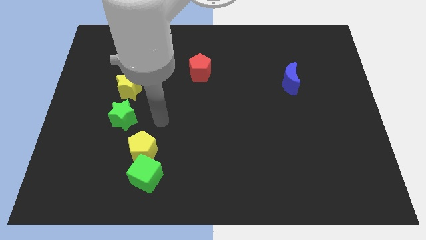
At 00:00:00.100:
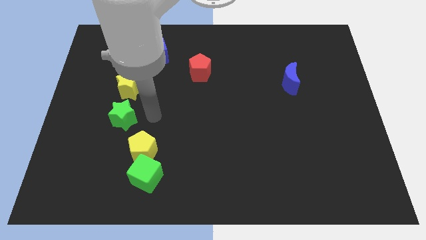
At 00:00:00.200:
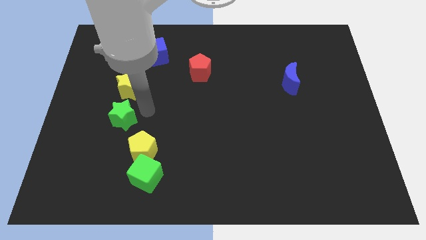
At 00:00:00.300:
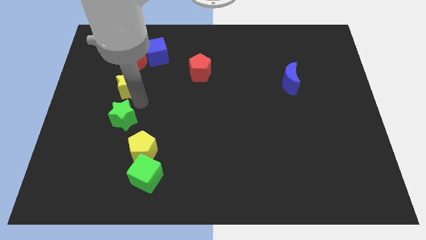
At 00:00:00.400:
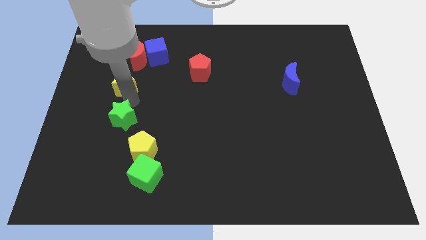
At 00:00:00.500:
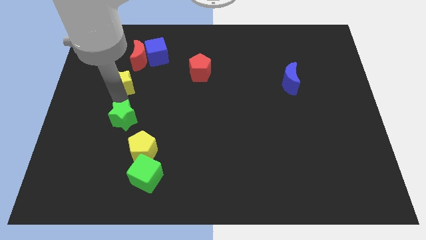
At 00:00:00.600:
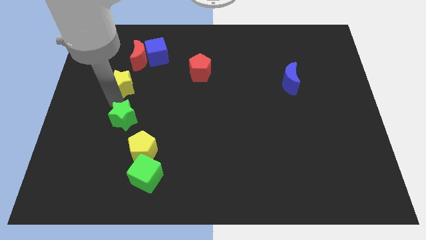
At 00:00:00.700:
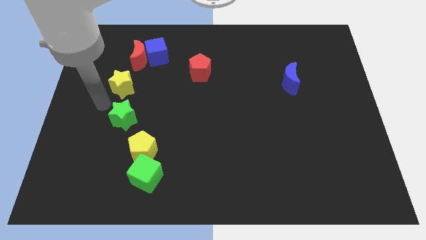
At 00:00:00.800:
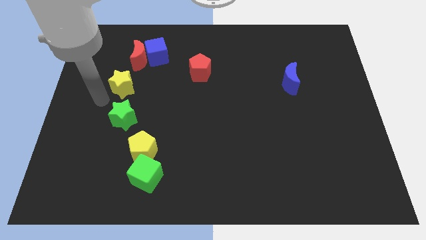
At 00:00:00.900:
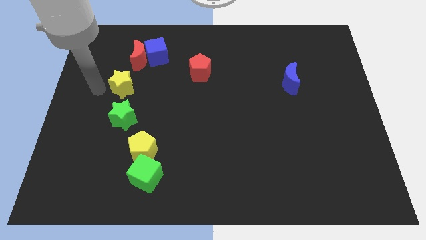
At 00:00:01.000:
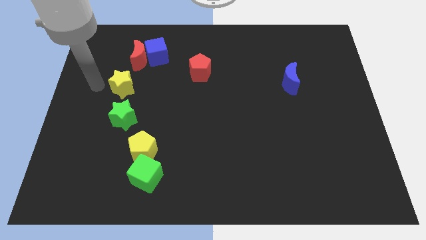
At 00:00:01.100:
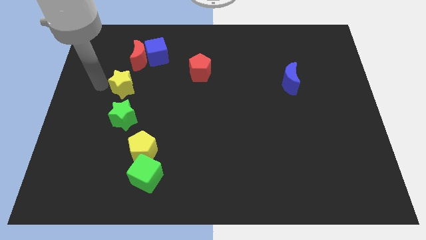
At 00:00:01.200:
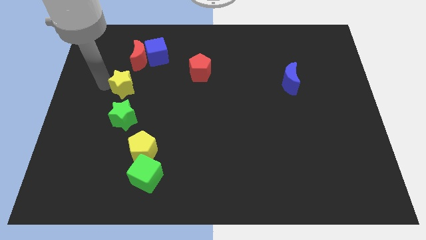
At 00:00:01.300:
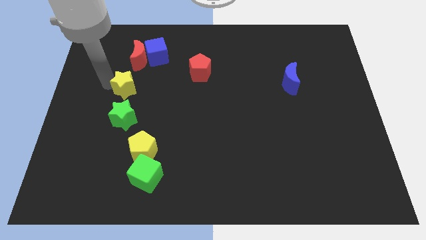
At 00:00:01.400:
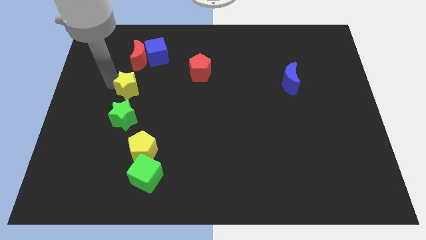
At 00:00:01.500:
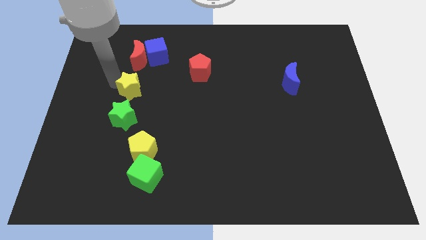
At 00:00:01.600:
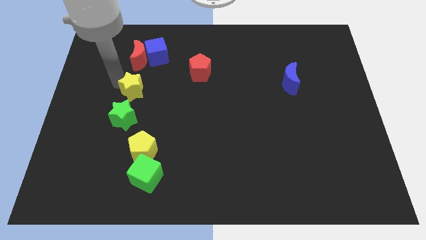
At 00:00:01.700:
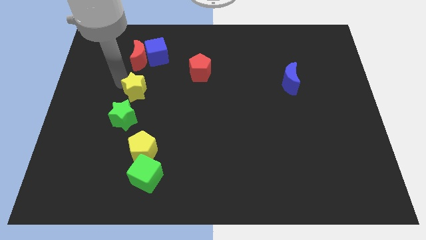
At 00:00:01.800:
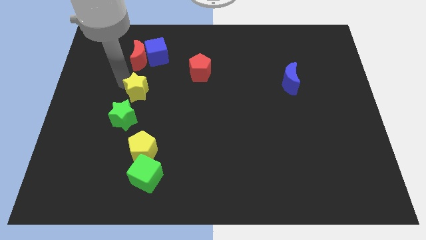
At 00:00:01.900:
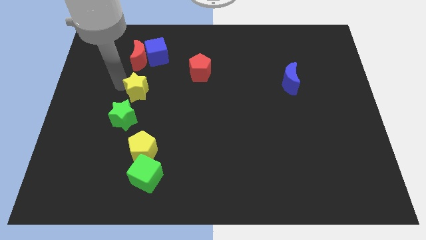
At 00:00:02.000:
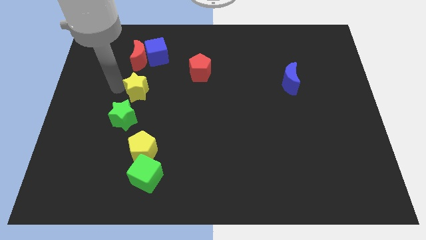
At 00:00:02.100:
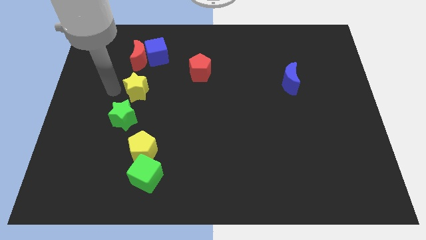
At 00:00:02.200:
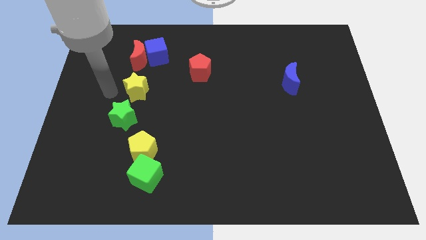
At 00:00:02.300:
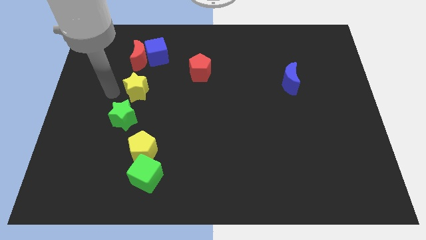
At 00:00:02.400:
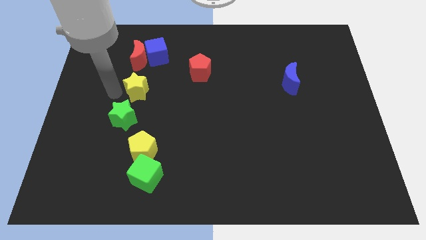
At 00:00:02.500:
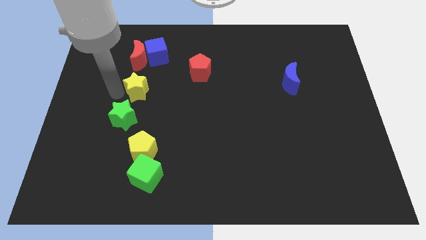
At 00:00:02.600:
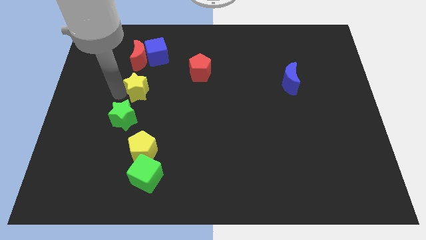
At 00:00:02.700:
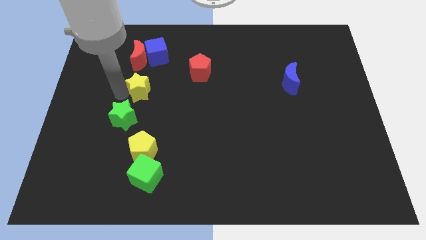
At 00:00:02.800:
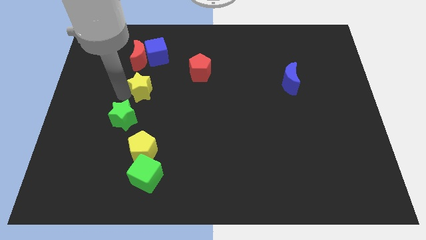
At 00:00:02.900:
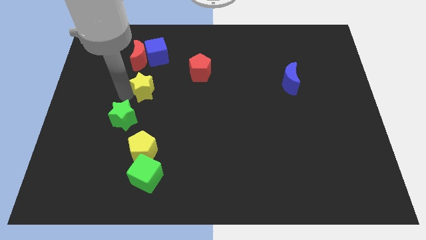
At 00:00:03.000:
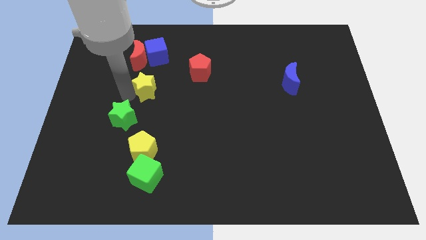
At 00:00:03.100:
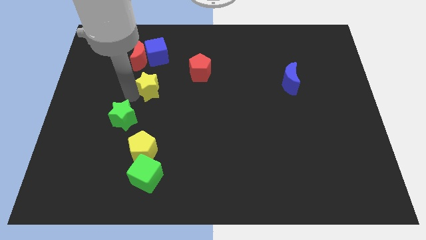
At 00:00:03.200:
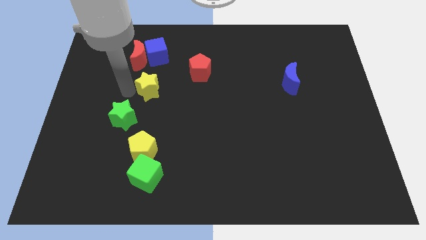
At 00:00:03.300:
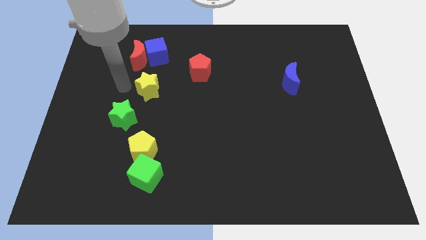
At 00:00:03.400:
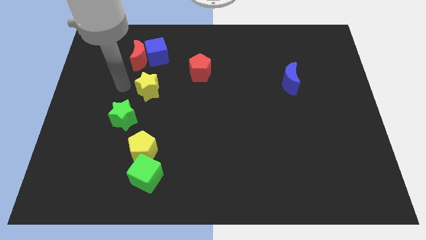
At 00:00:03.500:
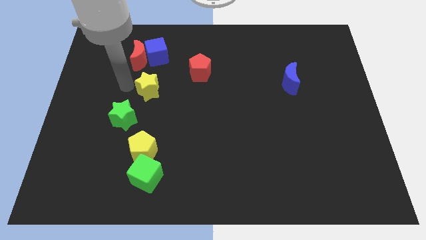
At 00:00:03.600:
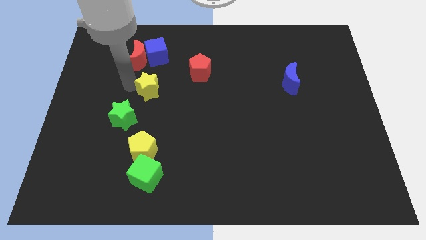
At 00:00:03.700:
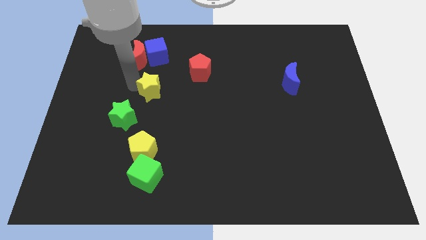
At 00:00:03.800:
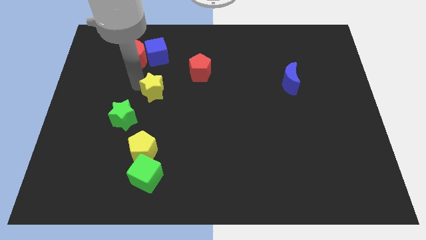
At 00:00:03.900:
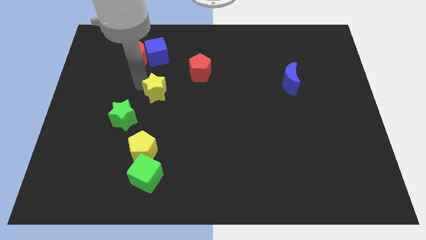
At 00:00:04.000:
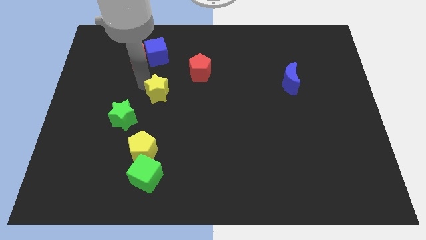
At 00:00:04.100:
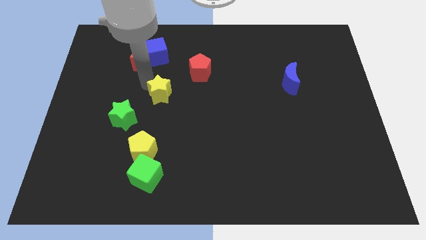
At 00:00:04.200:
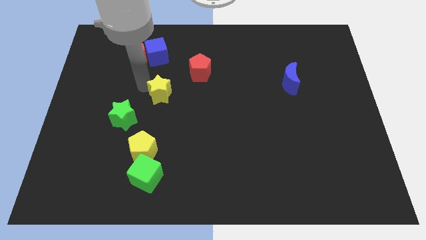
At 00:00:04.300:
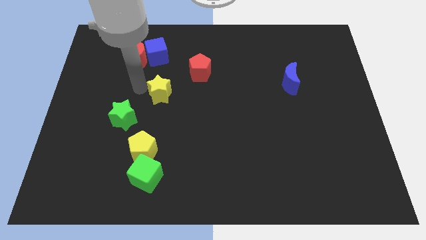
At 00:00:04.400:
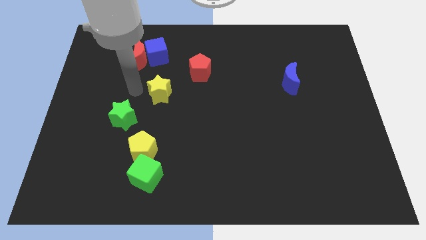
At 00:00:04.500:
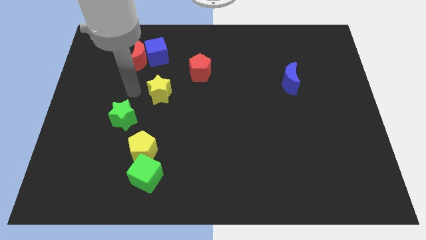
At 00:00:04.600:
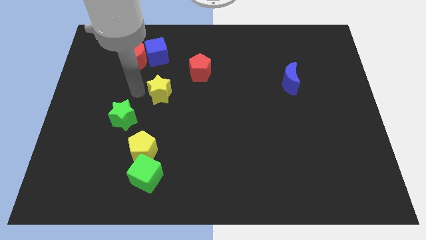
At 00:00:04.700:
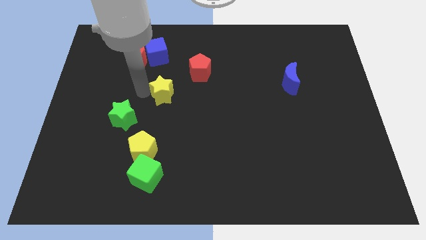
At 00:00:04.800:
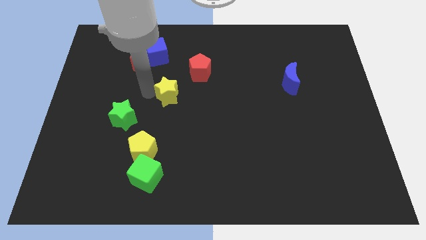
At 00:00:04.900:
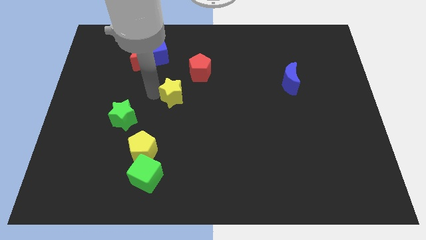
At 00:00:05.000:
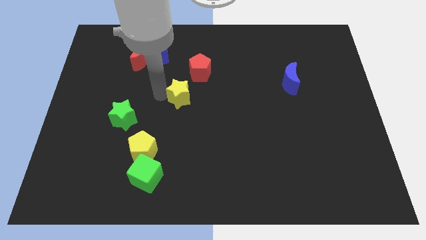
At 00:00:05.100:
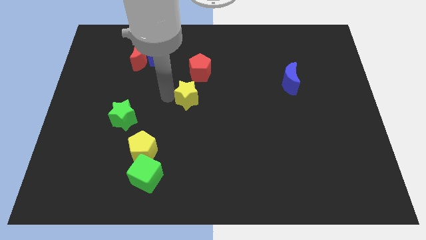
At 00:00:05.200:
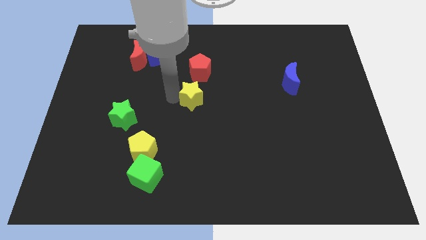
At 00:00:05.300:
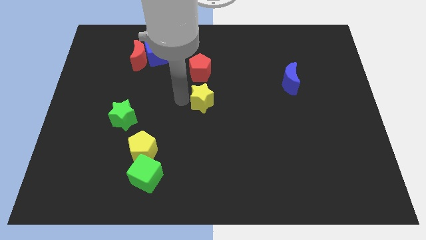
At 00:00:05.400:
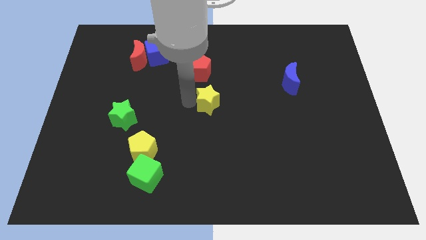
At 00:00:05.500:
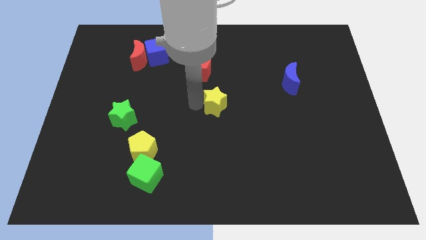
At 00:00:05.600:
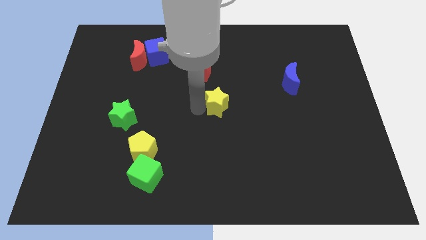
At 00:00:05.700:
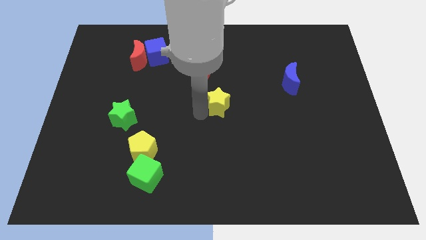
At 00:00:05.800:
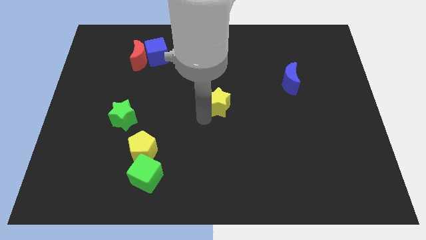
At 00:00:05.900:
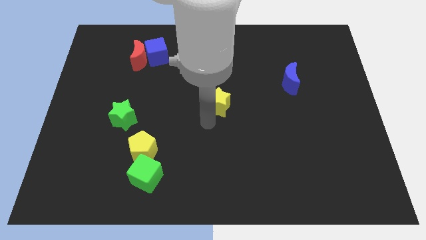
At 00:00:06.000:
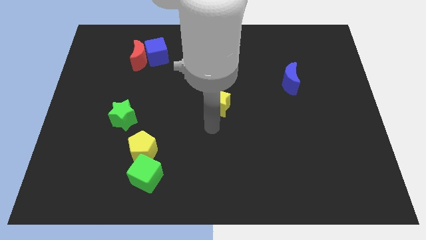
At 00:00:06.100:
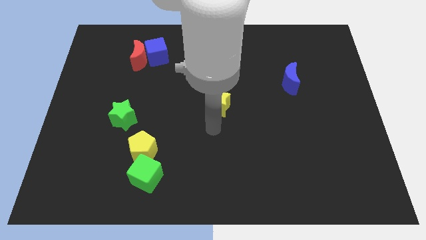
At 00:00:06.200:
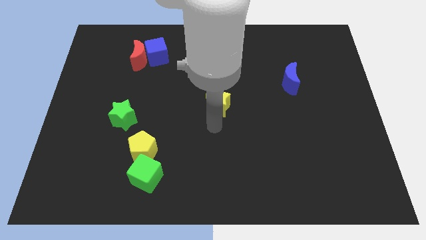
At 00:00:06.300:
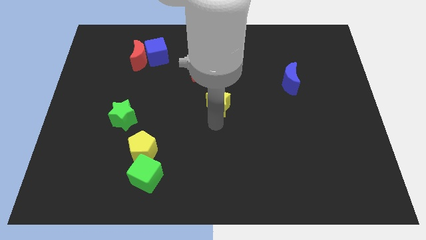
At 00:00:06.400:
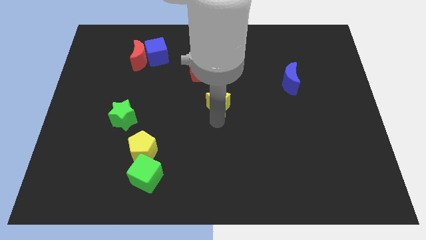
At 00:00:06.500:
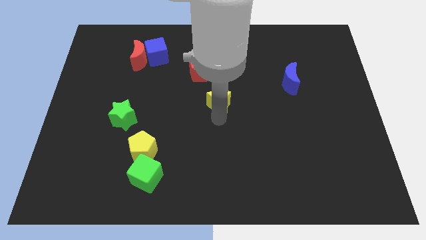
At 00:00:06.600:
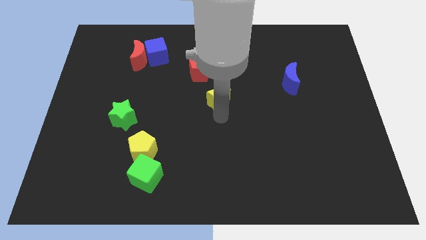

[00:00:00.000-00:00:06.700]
slide the yellow star to the bottom right of the red pentagon

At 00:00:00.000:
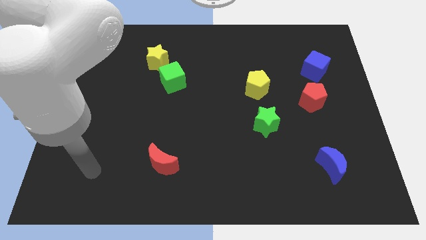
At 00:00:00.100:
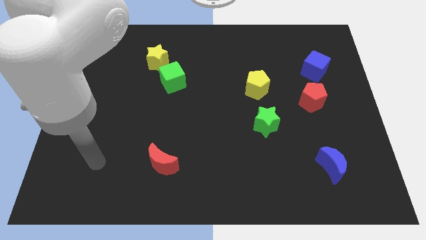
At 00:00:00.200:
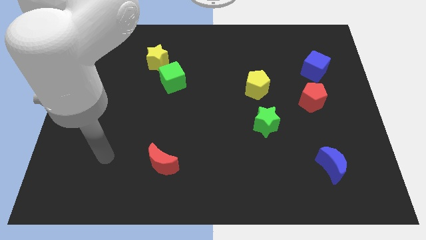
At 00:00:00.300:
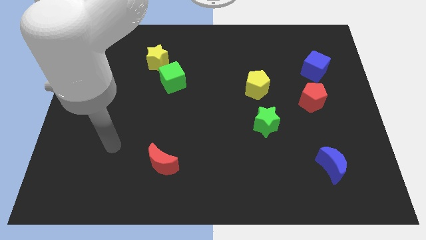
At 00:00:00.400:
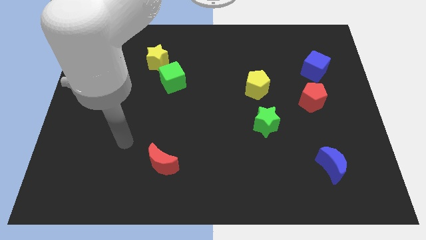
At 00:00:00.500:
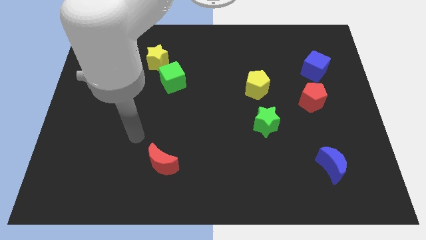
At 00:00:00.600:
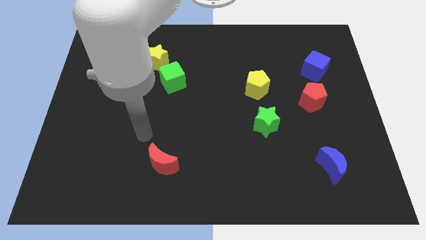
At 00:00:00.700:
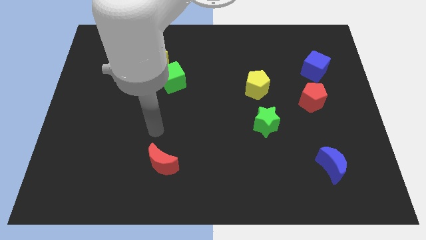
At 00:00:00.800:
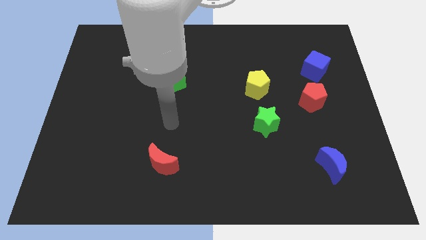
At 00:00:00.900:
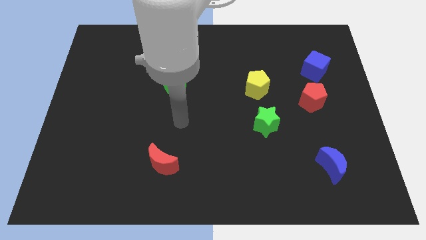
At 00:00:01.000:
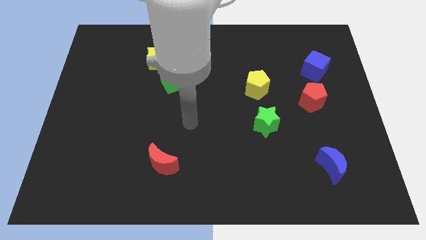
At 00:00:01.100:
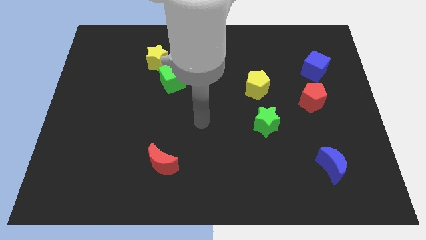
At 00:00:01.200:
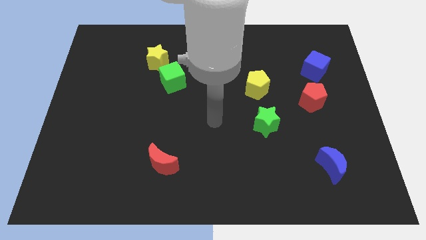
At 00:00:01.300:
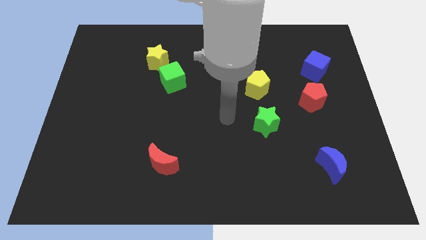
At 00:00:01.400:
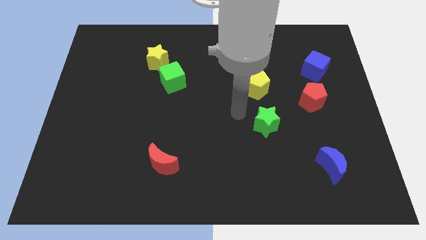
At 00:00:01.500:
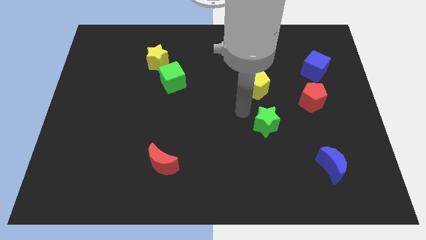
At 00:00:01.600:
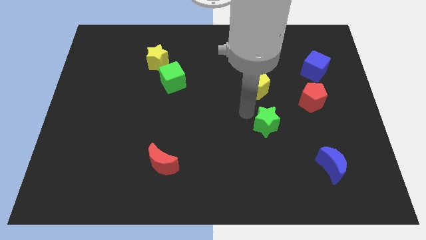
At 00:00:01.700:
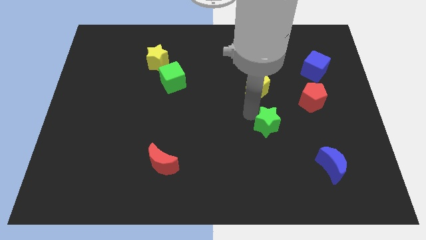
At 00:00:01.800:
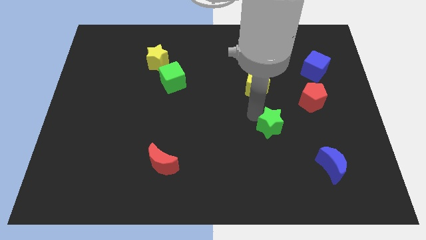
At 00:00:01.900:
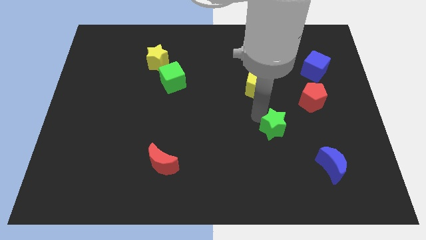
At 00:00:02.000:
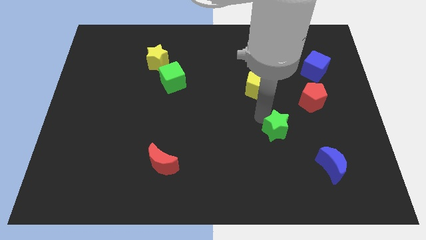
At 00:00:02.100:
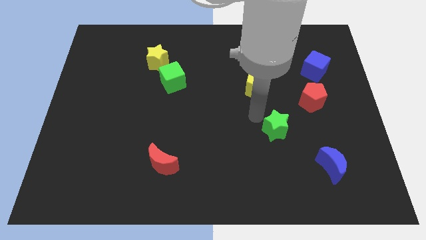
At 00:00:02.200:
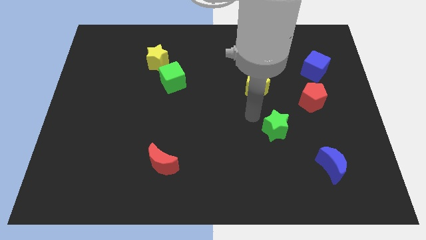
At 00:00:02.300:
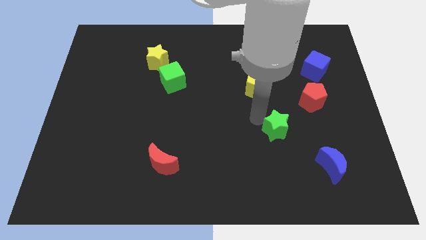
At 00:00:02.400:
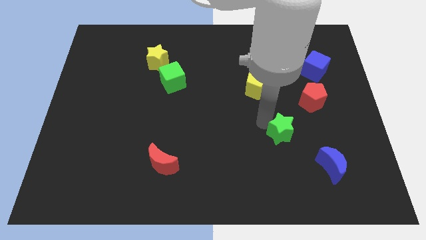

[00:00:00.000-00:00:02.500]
move the green star to the top left side of the blue moon
